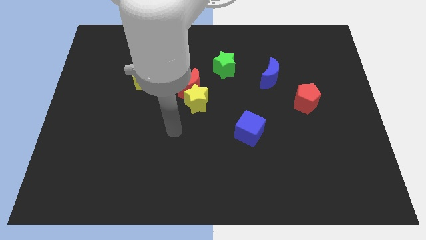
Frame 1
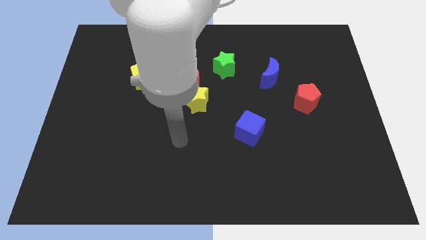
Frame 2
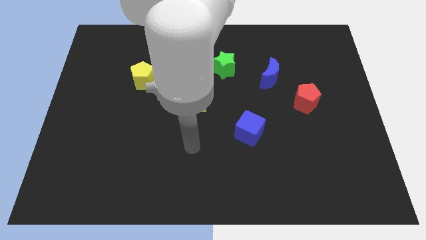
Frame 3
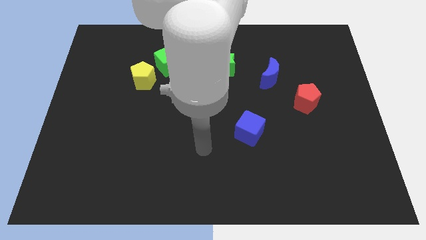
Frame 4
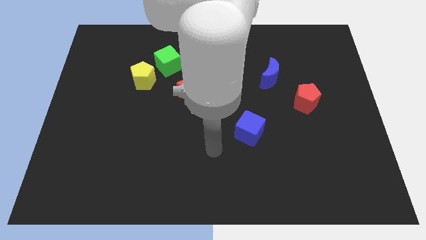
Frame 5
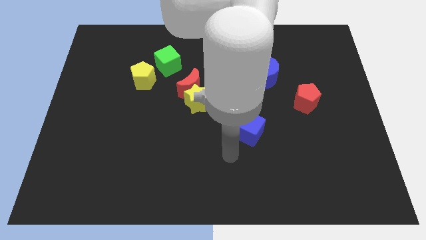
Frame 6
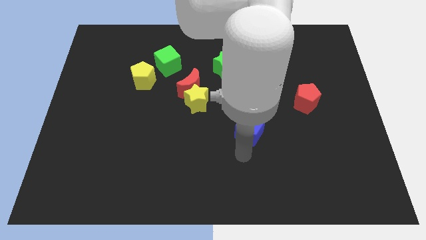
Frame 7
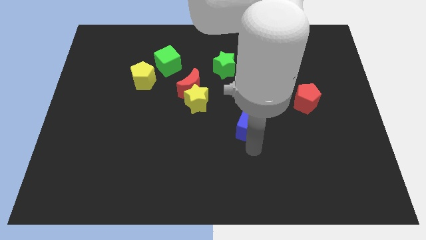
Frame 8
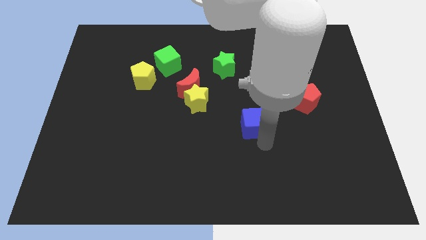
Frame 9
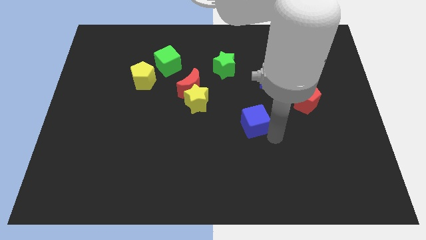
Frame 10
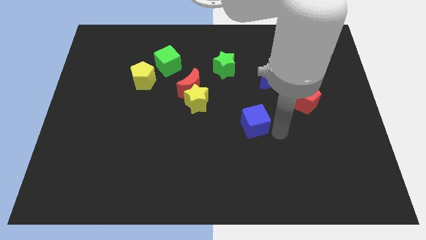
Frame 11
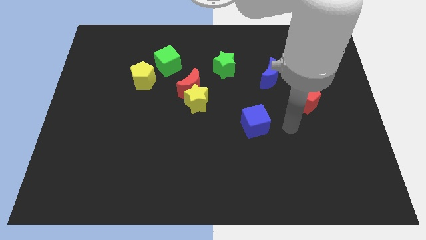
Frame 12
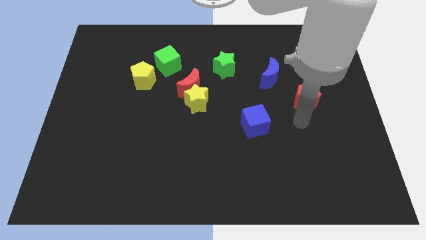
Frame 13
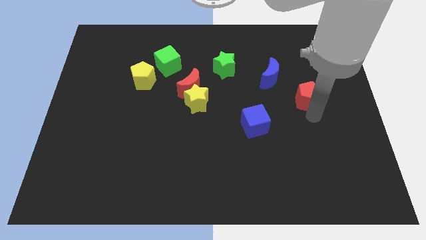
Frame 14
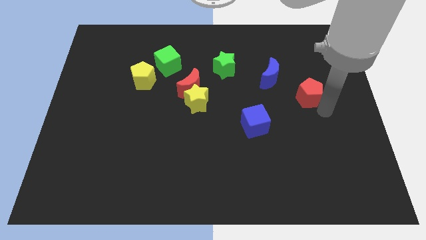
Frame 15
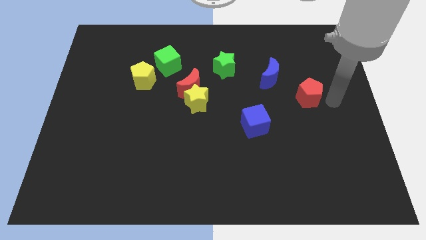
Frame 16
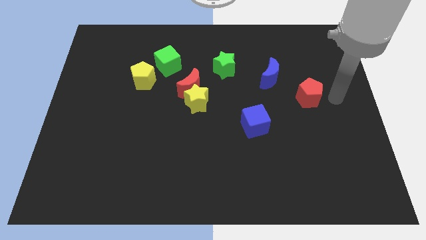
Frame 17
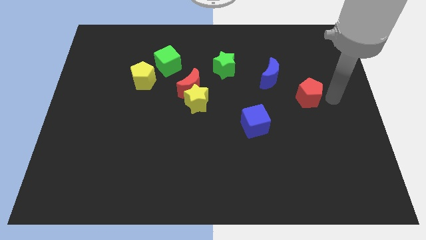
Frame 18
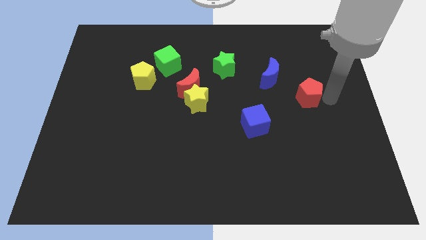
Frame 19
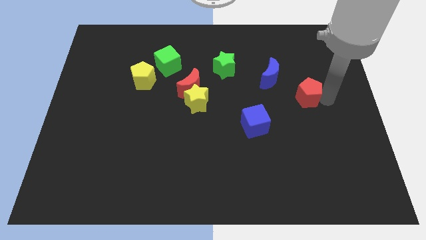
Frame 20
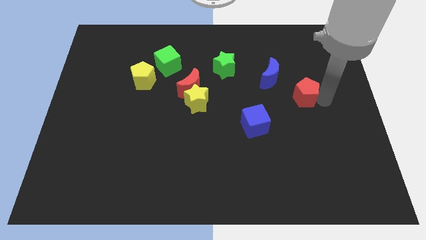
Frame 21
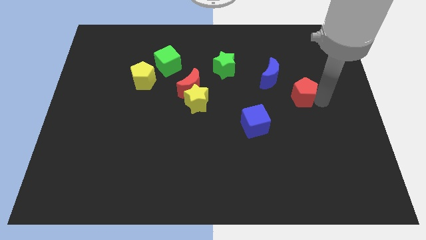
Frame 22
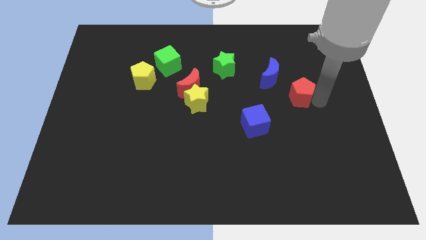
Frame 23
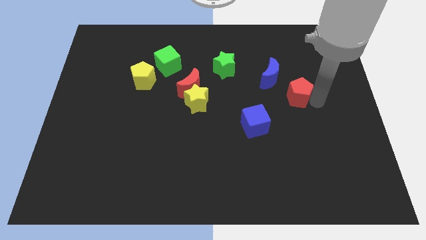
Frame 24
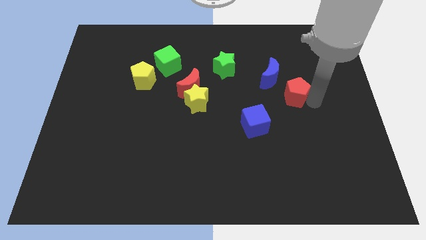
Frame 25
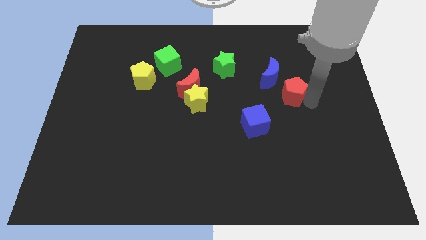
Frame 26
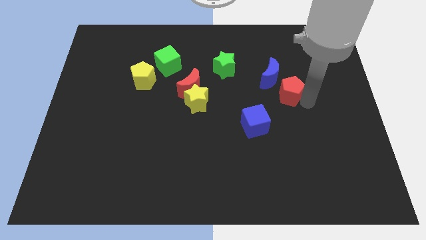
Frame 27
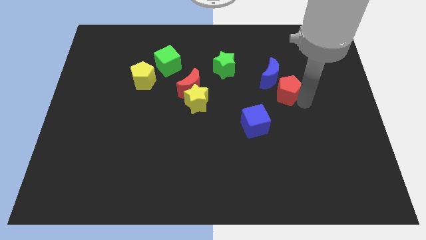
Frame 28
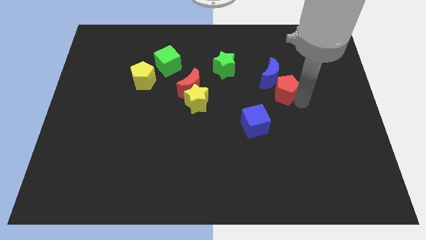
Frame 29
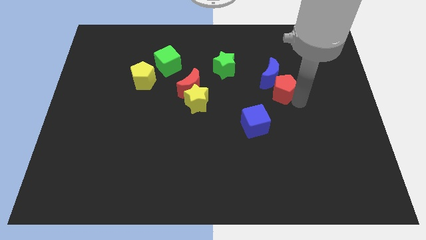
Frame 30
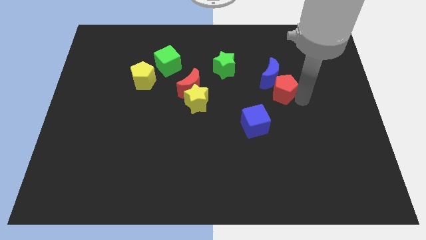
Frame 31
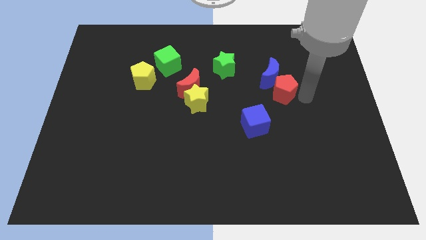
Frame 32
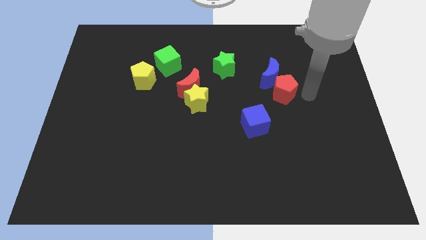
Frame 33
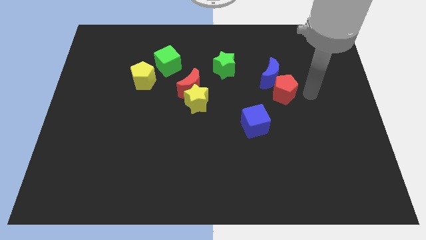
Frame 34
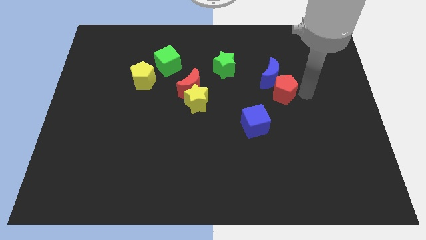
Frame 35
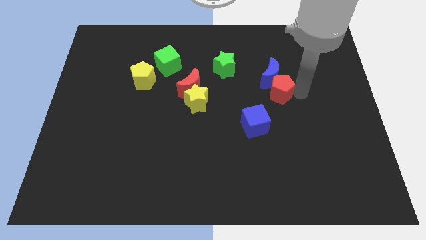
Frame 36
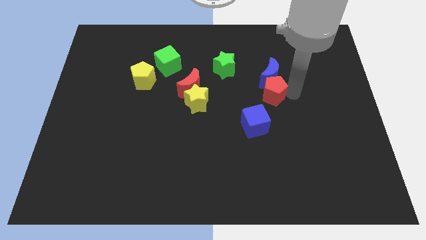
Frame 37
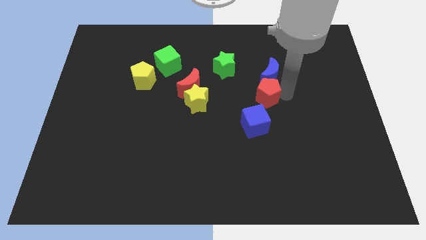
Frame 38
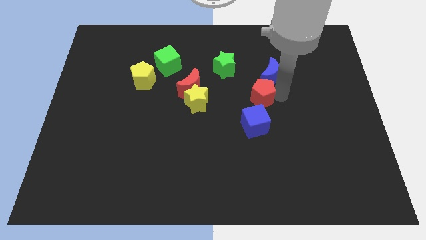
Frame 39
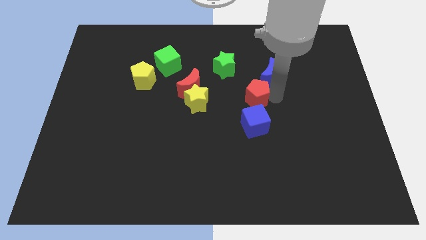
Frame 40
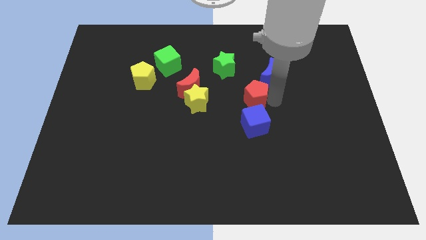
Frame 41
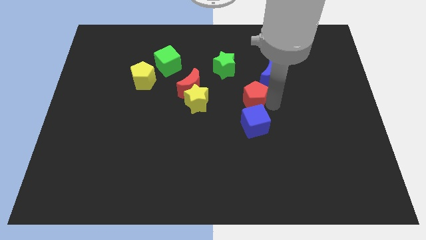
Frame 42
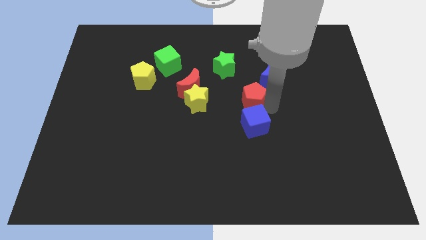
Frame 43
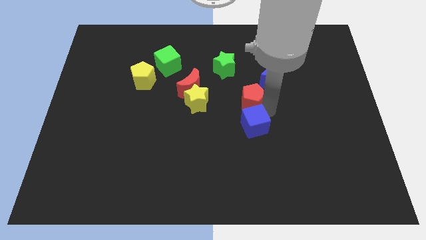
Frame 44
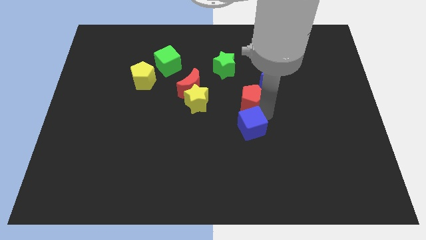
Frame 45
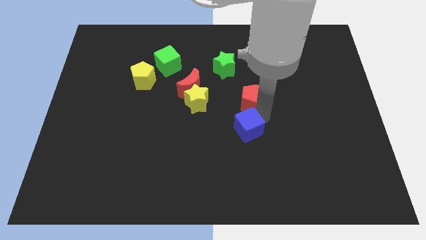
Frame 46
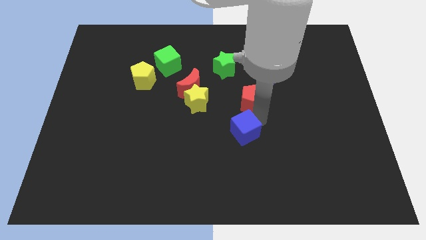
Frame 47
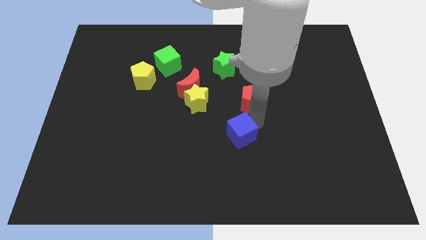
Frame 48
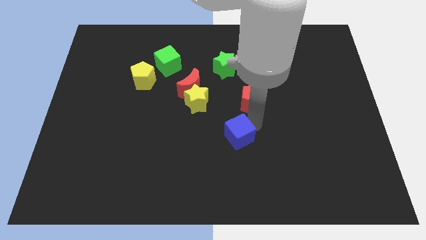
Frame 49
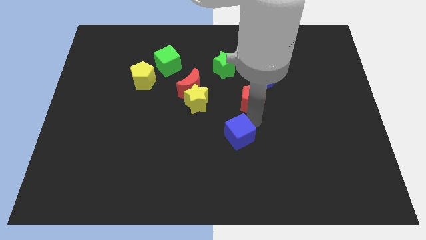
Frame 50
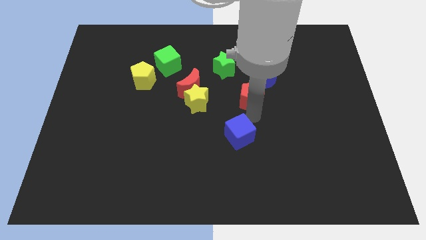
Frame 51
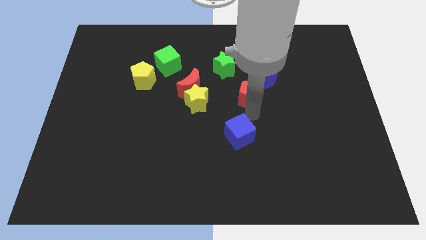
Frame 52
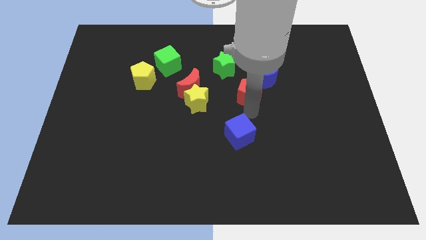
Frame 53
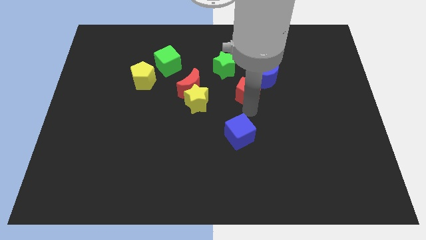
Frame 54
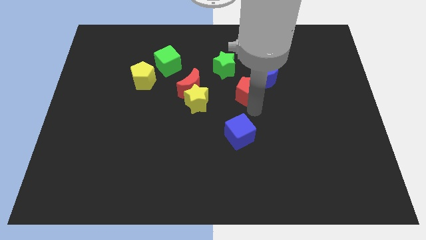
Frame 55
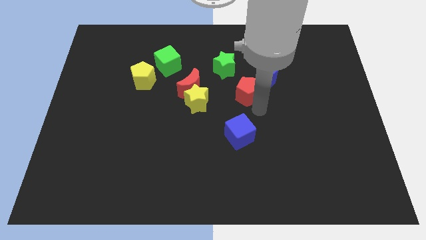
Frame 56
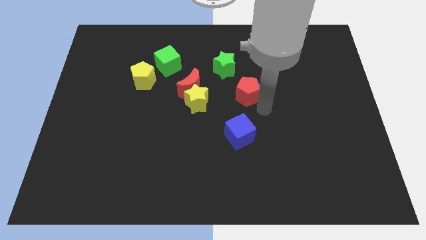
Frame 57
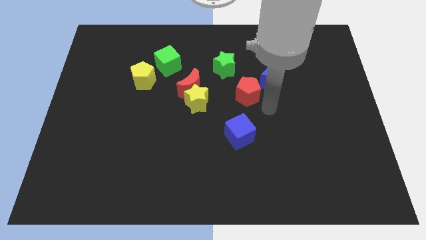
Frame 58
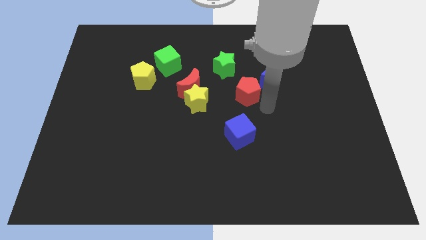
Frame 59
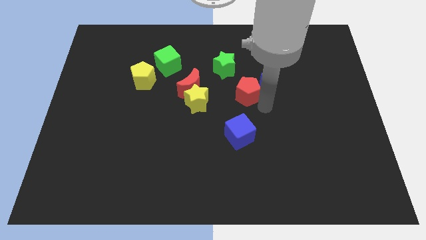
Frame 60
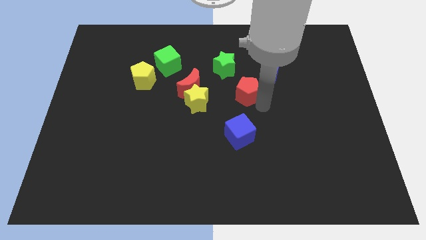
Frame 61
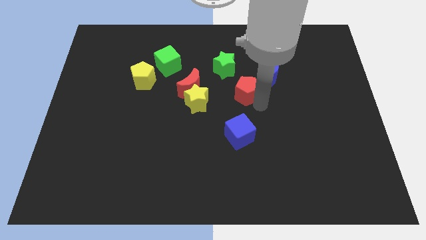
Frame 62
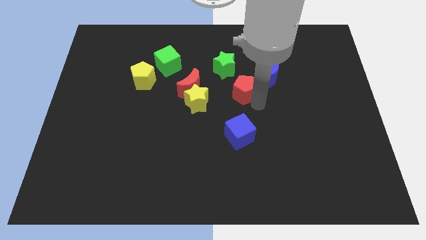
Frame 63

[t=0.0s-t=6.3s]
move the red pentagon to the left of the blue moon

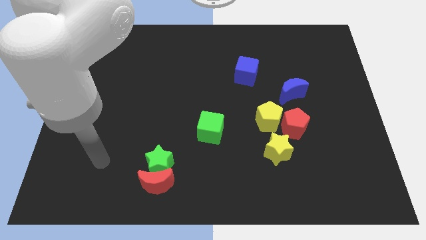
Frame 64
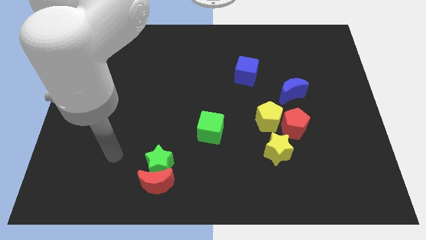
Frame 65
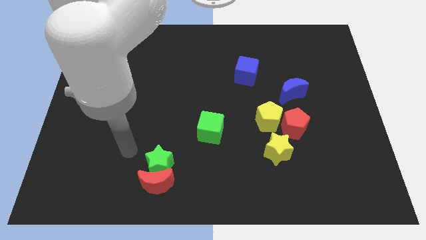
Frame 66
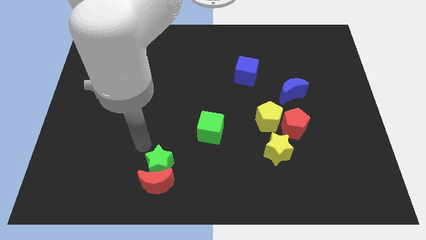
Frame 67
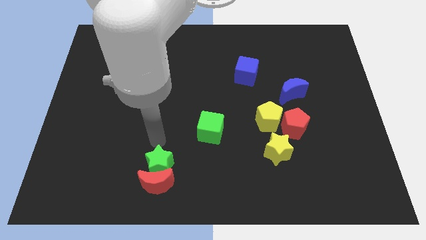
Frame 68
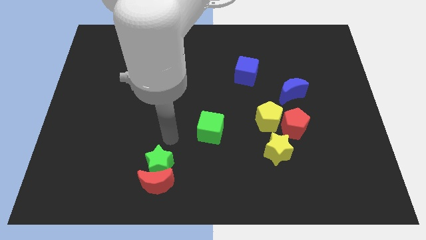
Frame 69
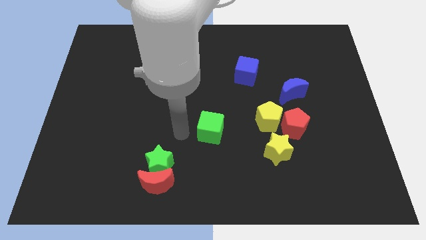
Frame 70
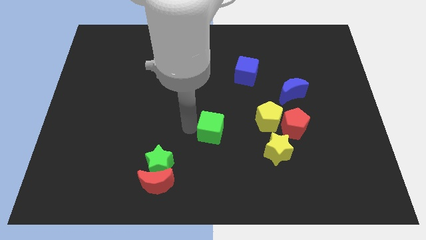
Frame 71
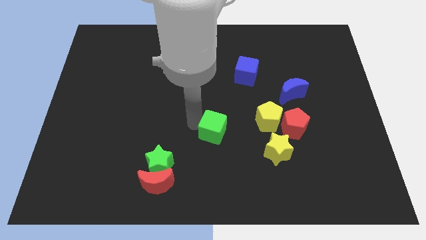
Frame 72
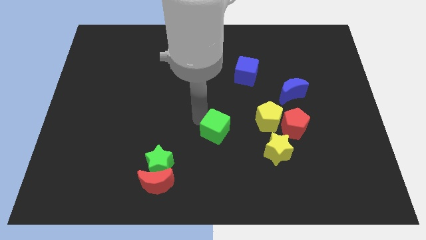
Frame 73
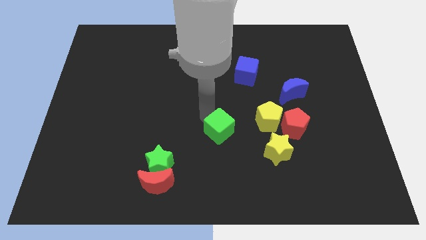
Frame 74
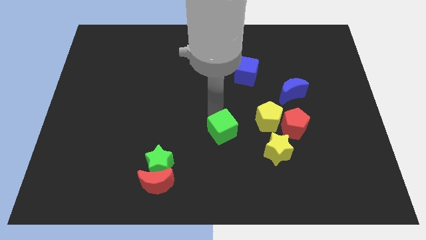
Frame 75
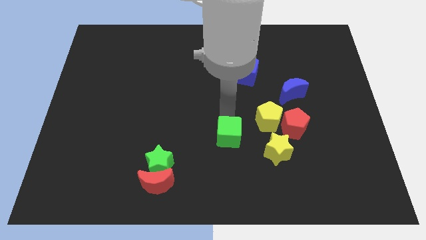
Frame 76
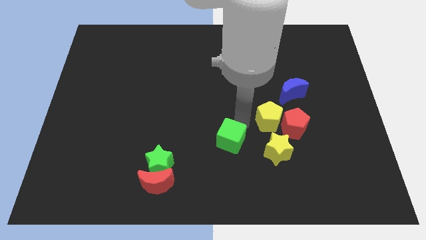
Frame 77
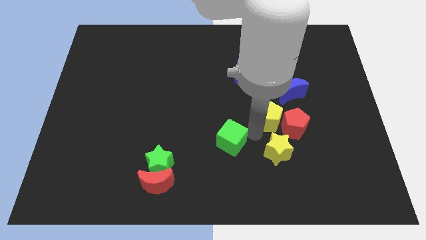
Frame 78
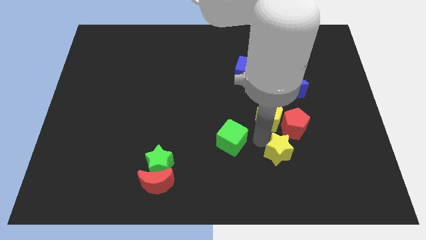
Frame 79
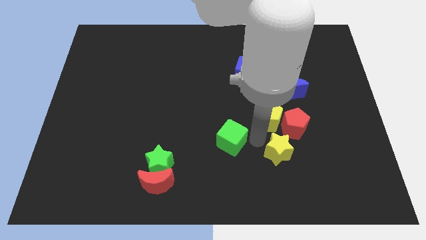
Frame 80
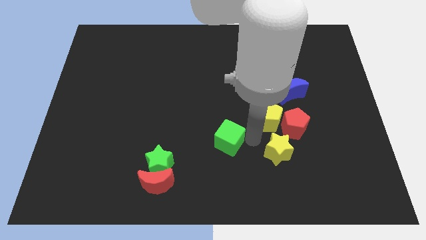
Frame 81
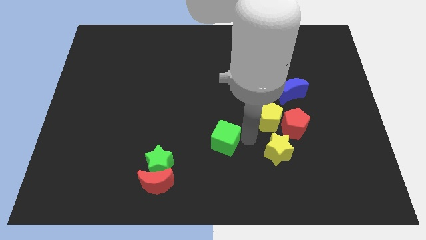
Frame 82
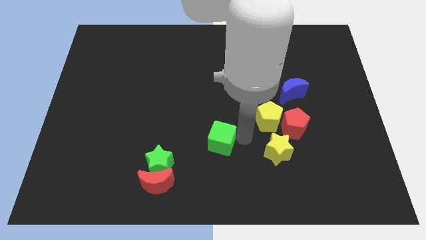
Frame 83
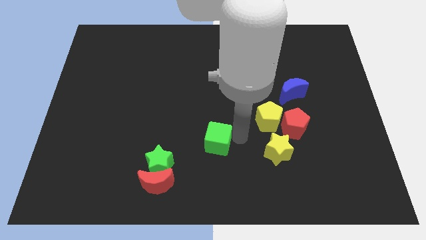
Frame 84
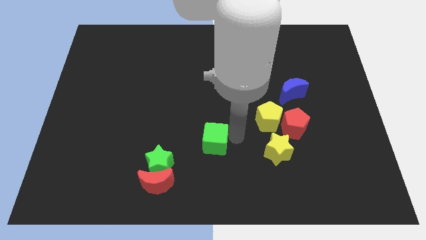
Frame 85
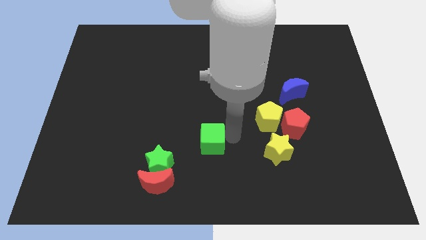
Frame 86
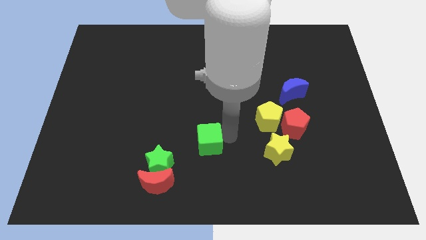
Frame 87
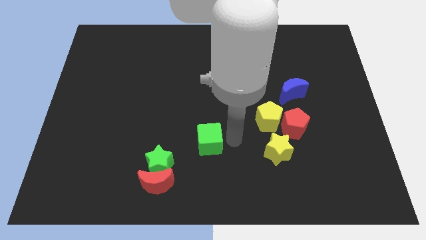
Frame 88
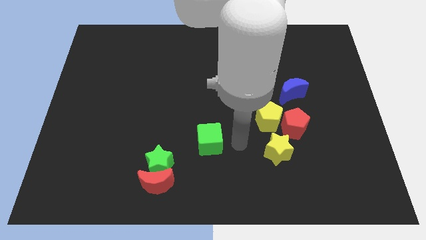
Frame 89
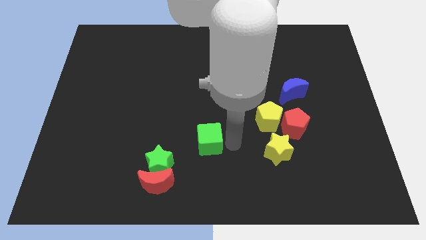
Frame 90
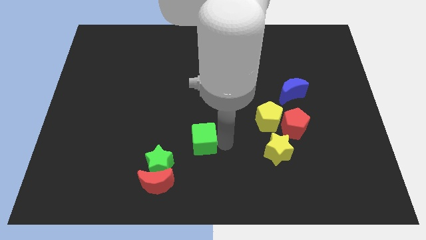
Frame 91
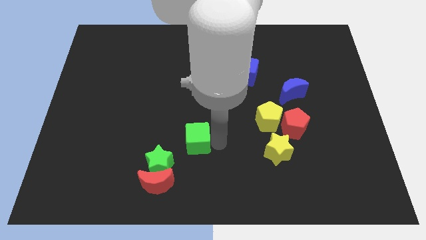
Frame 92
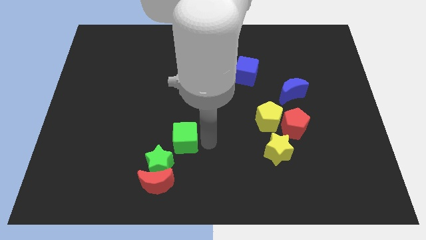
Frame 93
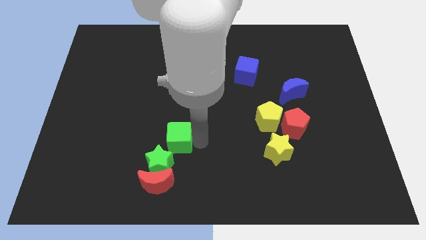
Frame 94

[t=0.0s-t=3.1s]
move the green cube to the top of the red moon
